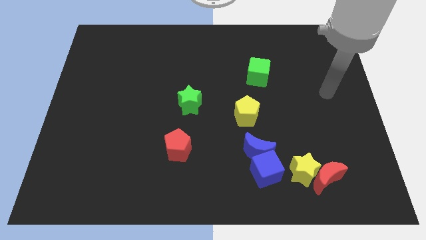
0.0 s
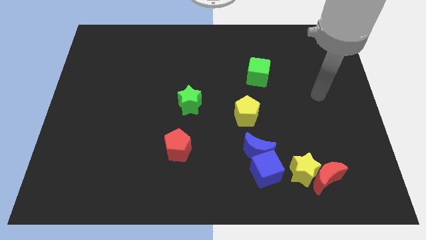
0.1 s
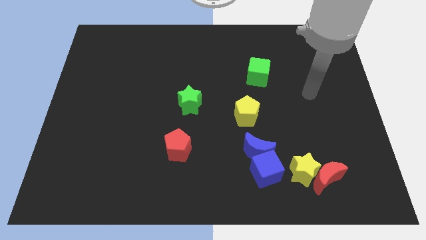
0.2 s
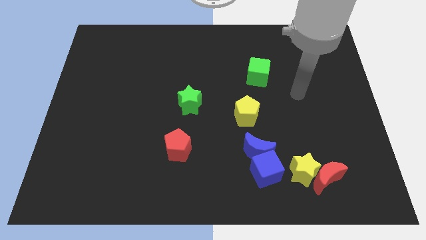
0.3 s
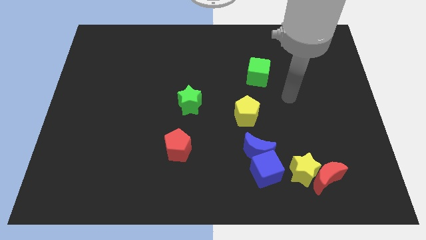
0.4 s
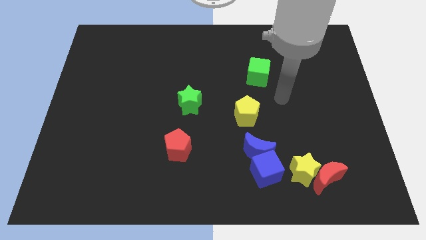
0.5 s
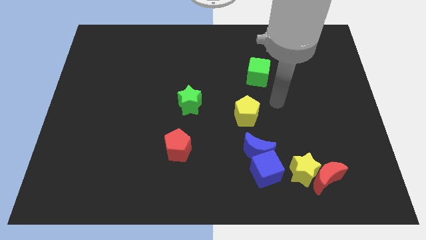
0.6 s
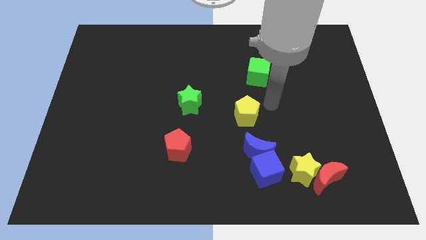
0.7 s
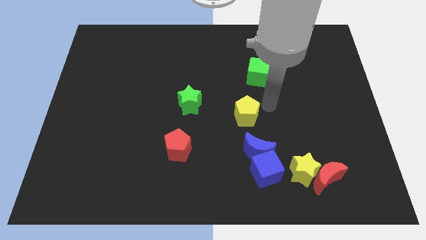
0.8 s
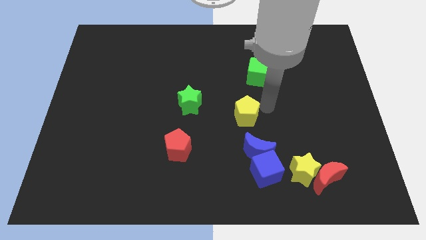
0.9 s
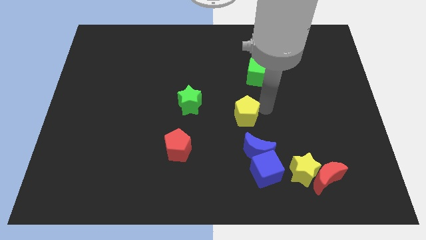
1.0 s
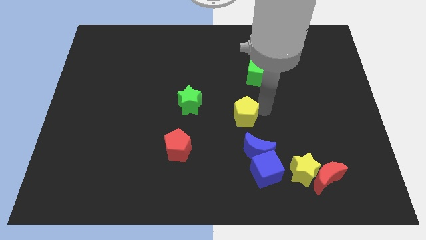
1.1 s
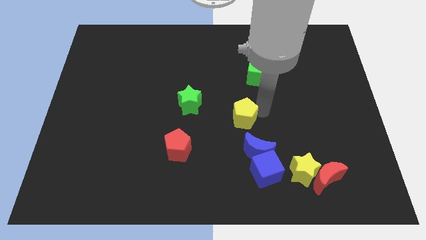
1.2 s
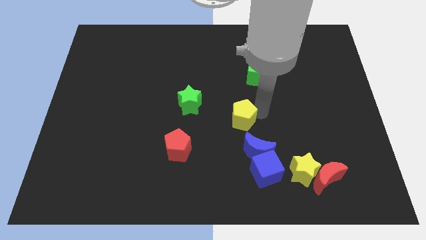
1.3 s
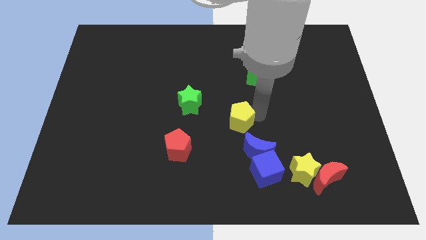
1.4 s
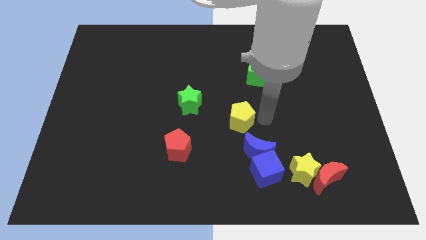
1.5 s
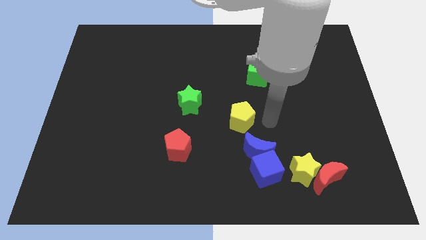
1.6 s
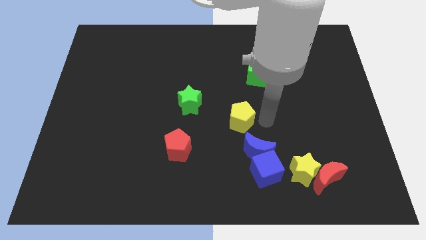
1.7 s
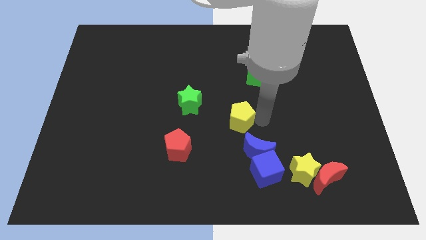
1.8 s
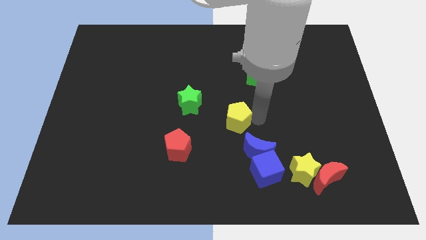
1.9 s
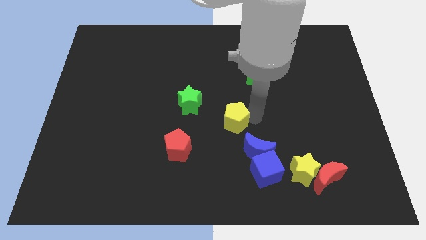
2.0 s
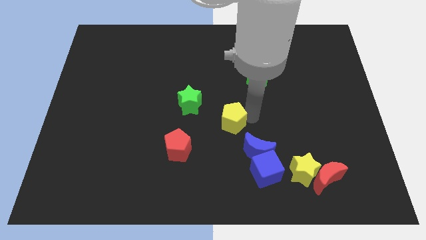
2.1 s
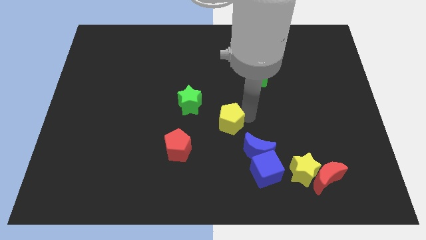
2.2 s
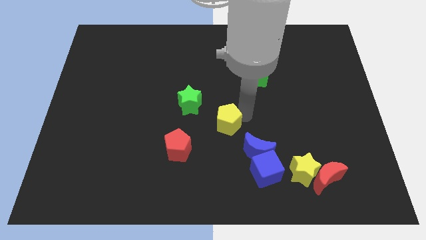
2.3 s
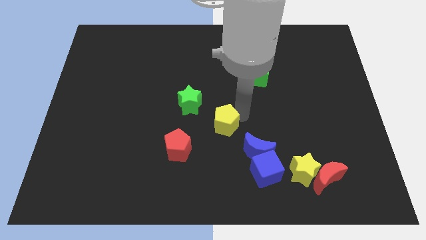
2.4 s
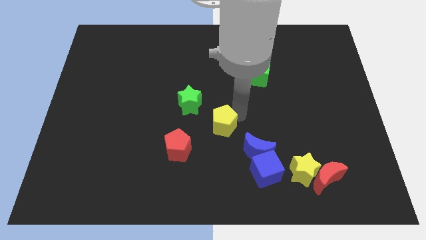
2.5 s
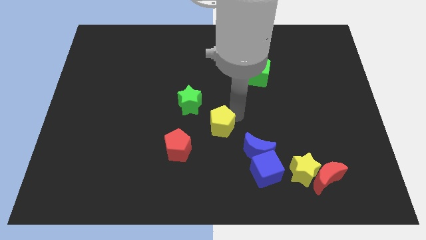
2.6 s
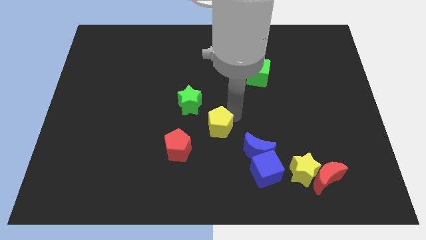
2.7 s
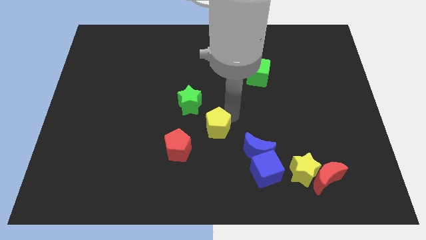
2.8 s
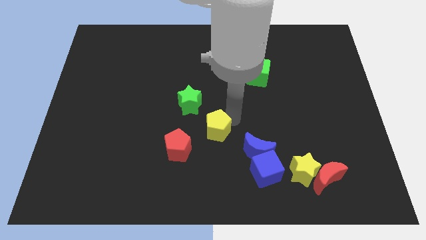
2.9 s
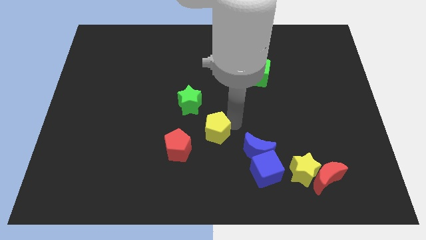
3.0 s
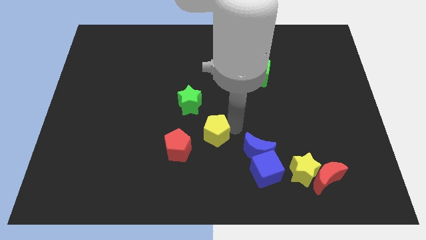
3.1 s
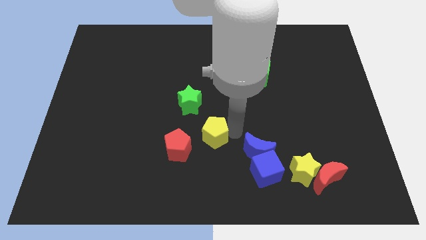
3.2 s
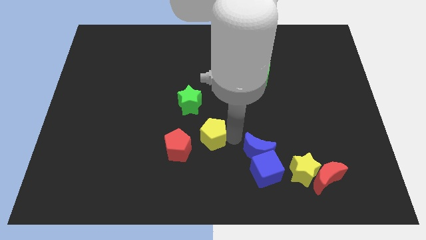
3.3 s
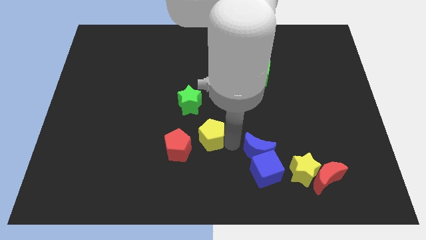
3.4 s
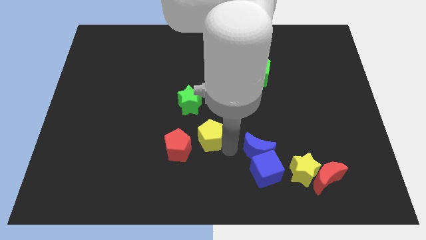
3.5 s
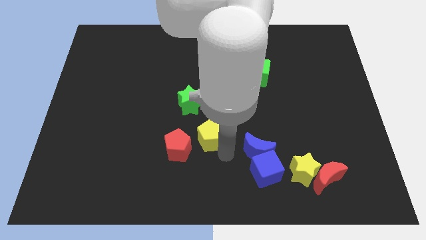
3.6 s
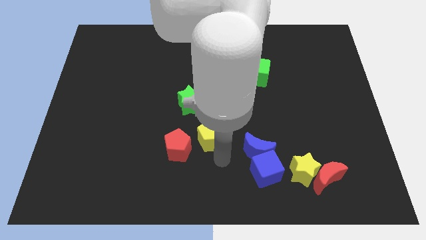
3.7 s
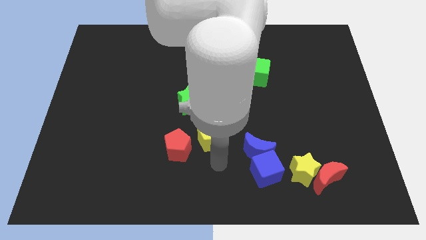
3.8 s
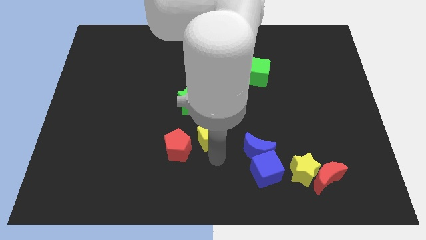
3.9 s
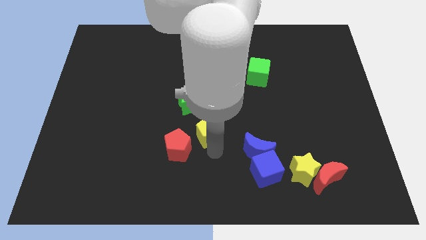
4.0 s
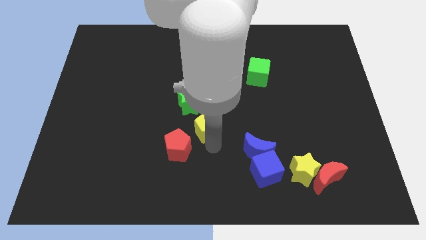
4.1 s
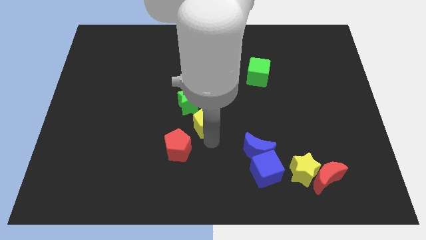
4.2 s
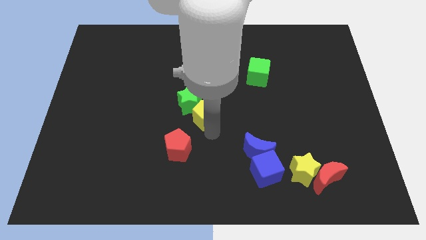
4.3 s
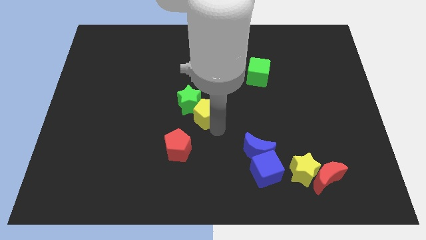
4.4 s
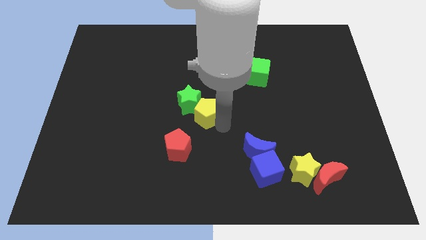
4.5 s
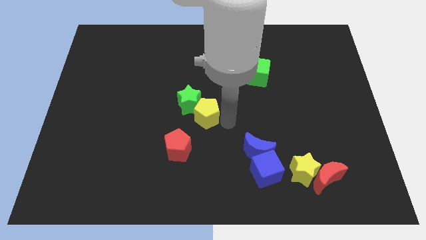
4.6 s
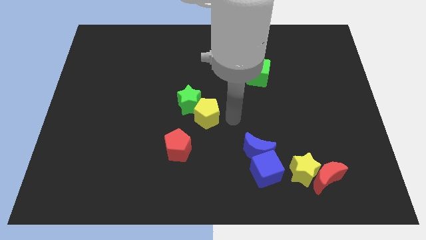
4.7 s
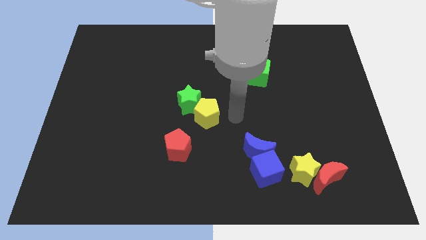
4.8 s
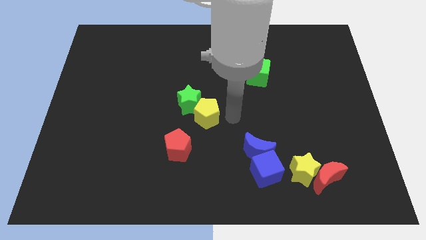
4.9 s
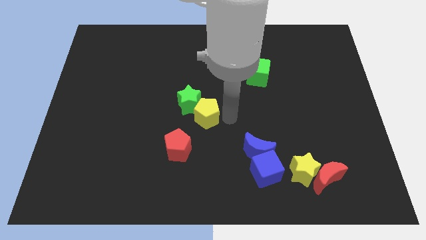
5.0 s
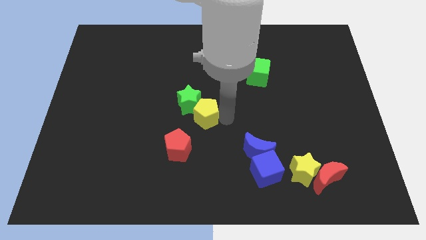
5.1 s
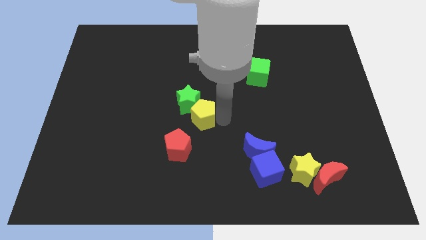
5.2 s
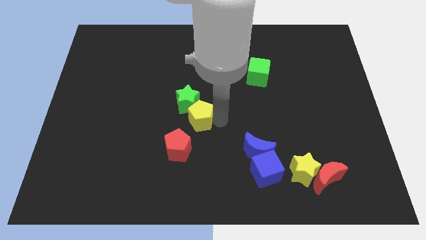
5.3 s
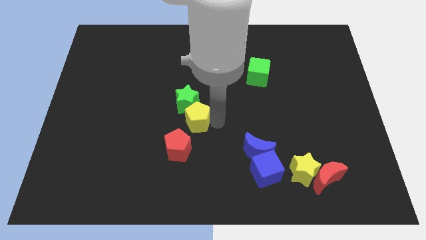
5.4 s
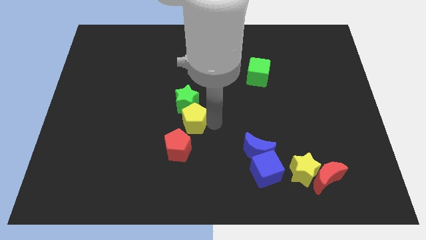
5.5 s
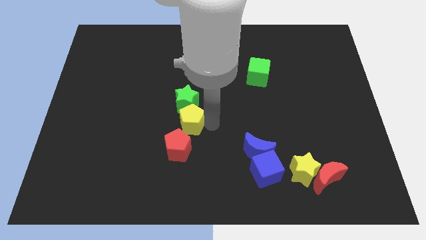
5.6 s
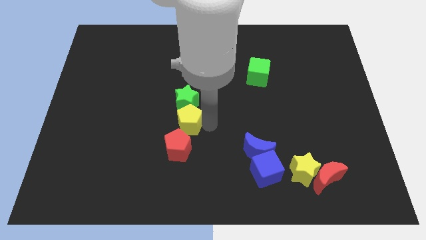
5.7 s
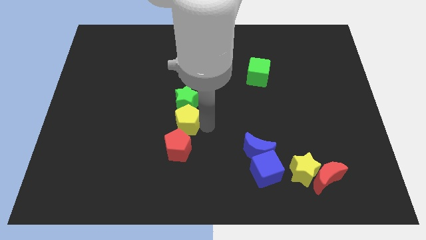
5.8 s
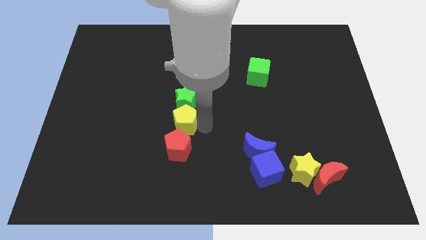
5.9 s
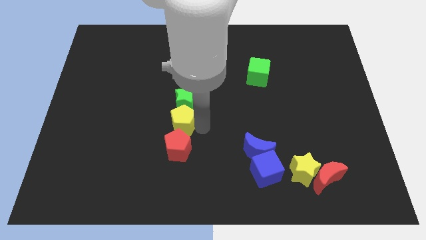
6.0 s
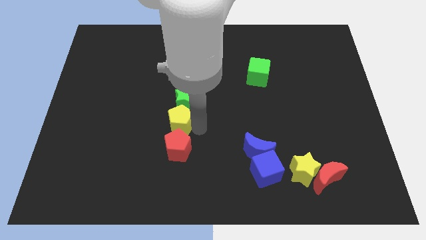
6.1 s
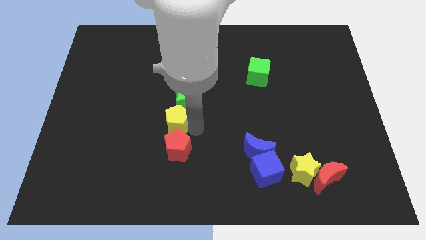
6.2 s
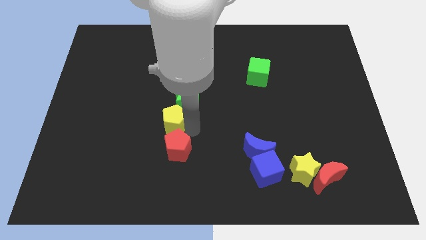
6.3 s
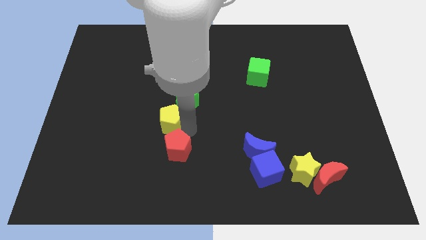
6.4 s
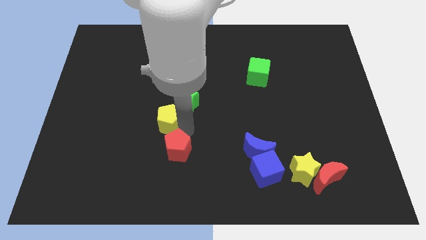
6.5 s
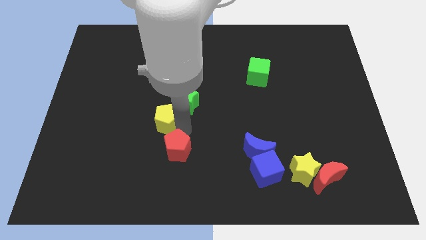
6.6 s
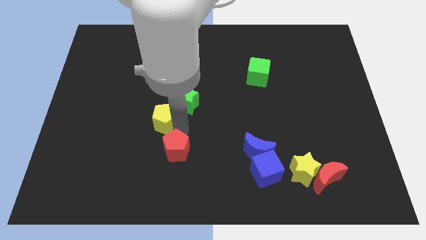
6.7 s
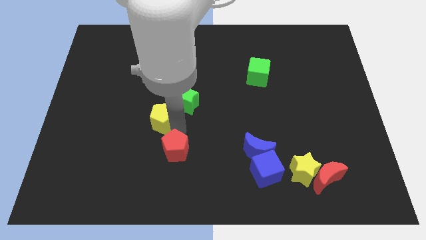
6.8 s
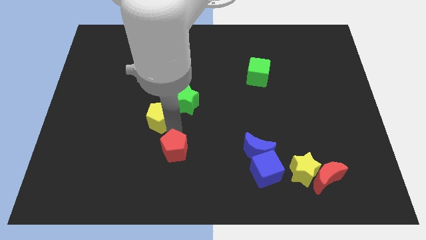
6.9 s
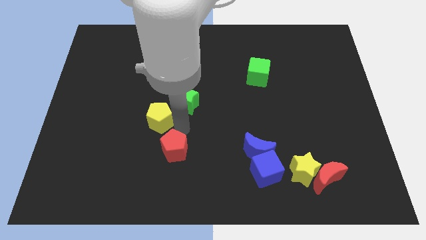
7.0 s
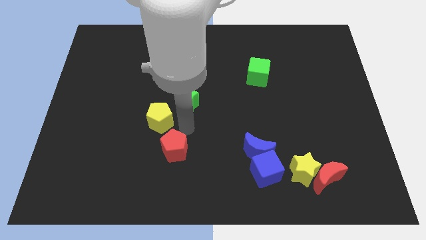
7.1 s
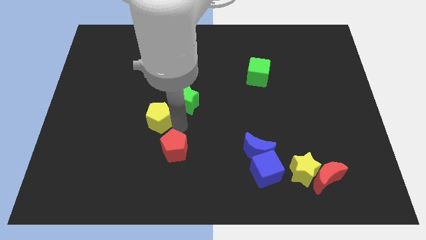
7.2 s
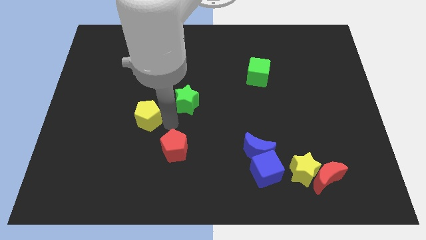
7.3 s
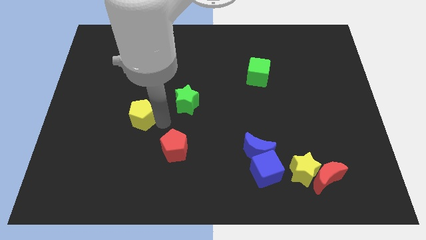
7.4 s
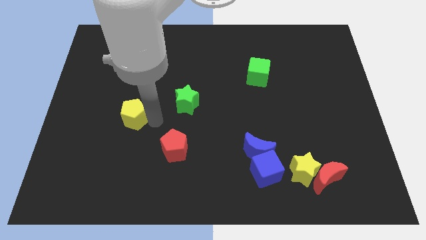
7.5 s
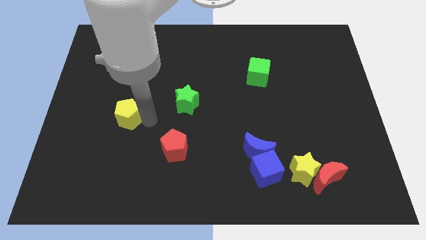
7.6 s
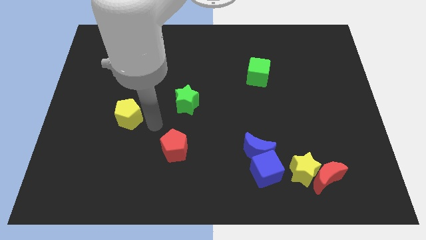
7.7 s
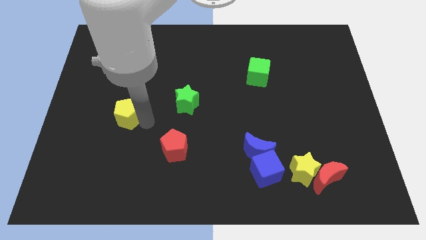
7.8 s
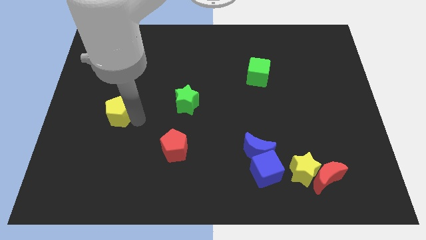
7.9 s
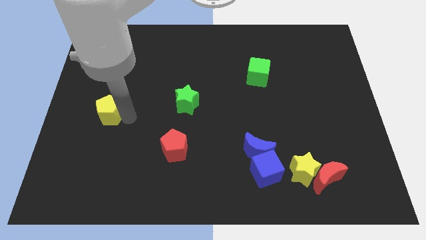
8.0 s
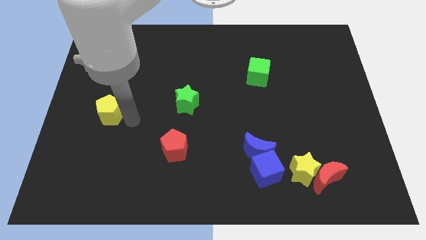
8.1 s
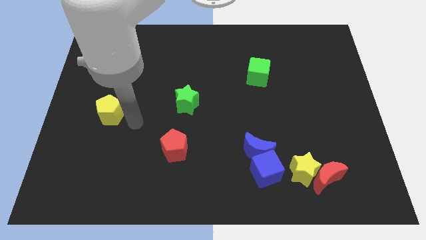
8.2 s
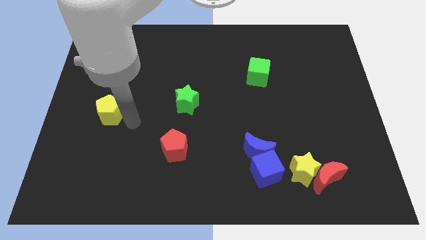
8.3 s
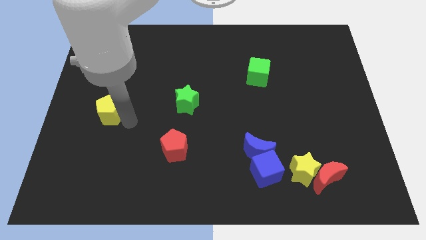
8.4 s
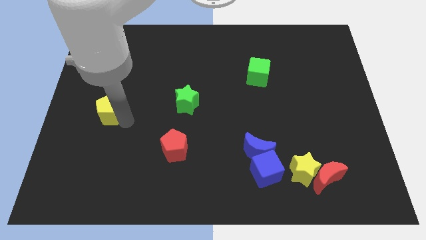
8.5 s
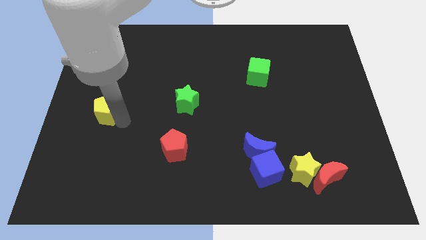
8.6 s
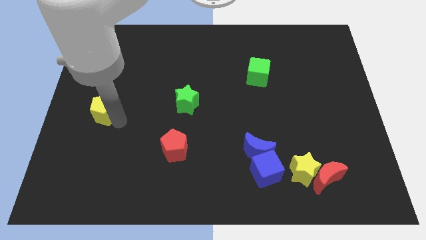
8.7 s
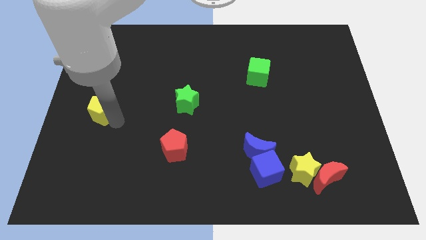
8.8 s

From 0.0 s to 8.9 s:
slide the yellow pentagon to the center left
